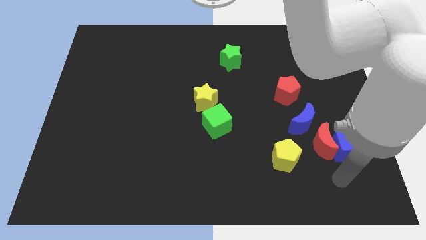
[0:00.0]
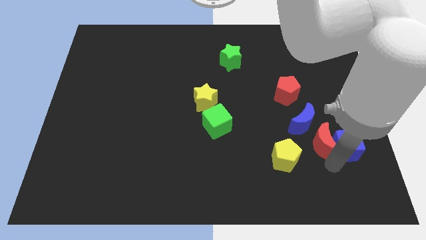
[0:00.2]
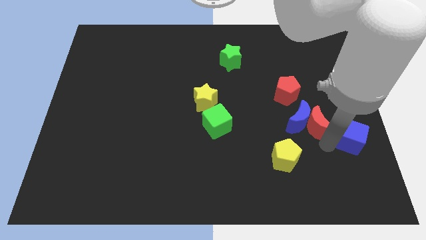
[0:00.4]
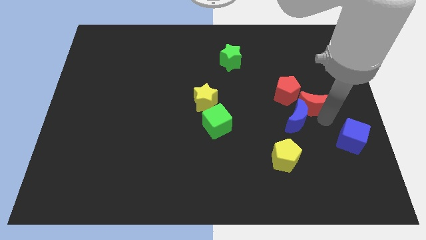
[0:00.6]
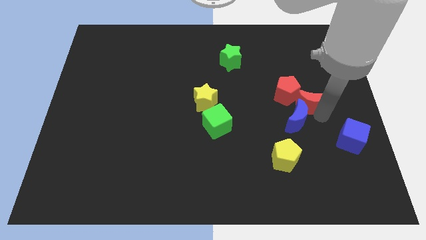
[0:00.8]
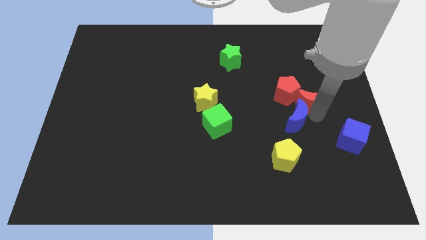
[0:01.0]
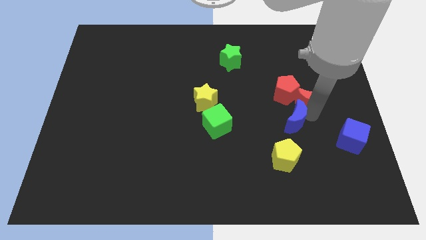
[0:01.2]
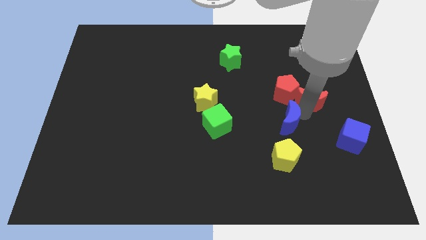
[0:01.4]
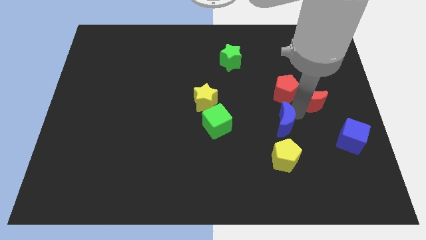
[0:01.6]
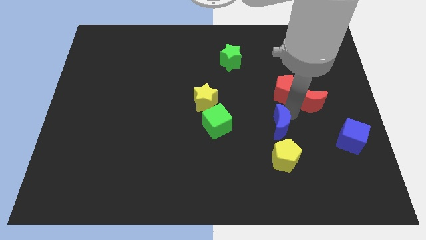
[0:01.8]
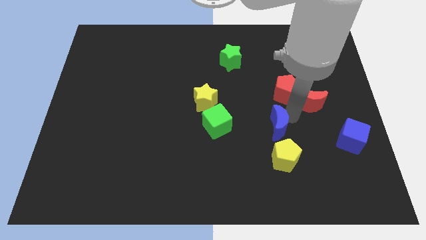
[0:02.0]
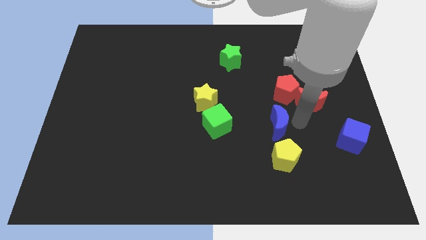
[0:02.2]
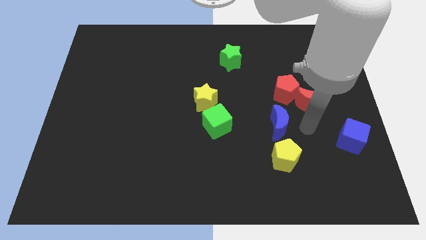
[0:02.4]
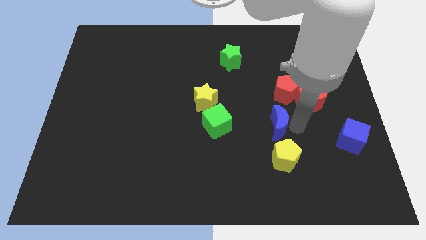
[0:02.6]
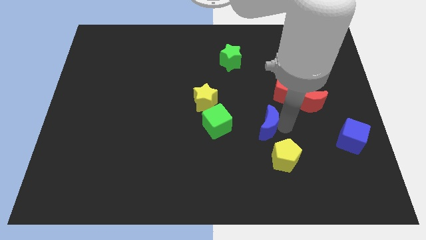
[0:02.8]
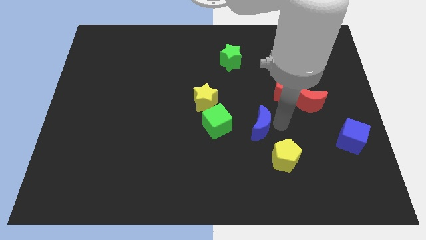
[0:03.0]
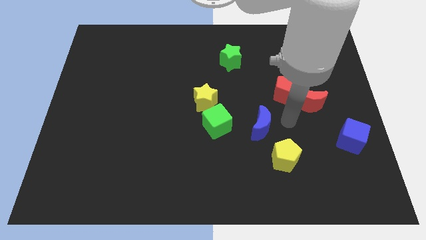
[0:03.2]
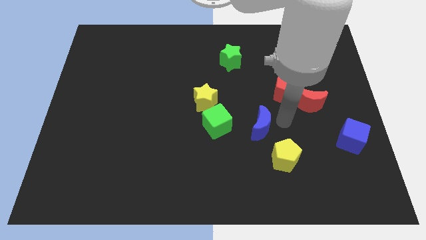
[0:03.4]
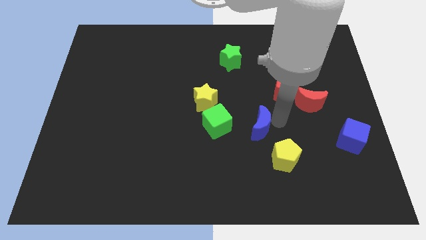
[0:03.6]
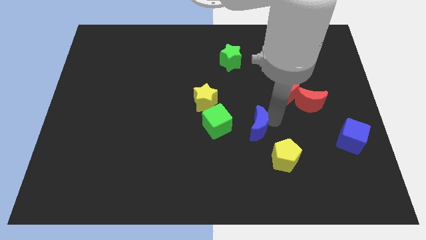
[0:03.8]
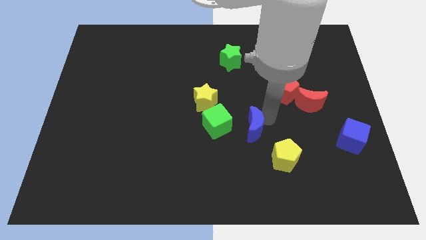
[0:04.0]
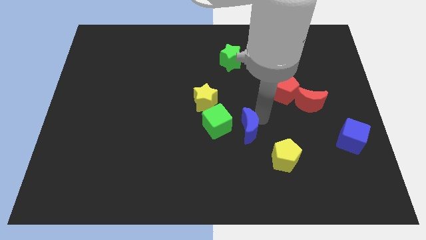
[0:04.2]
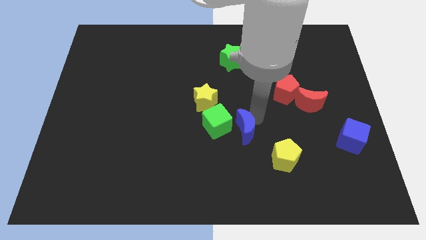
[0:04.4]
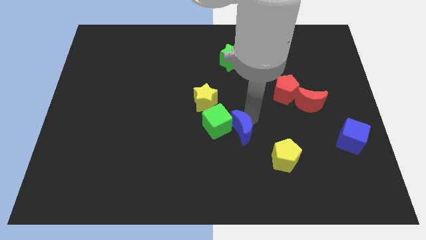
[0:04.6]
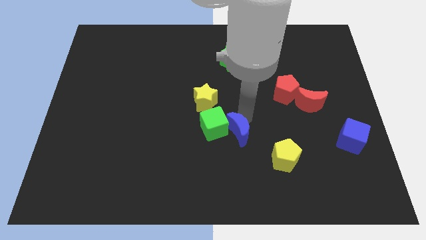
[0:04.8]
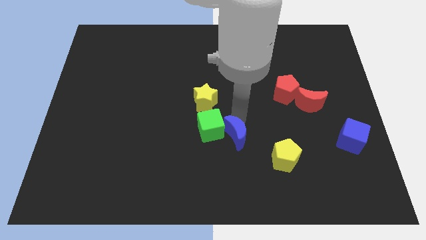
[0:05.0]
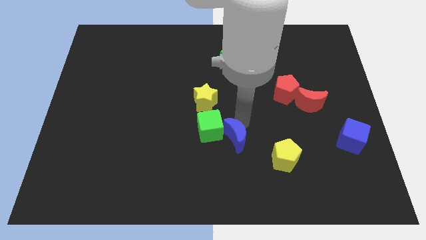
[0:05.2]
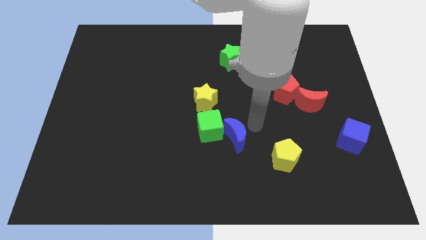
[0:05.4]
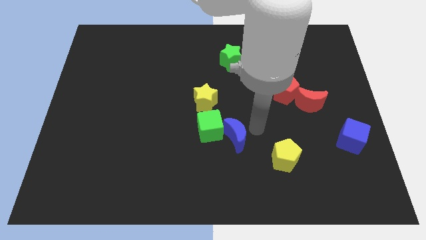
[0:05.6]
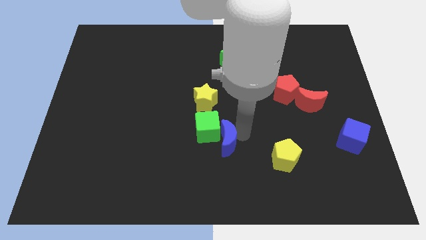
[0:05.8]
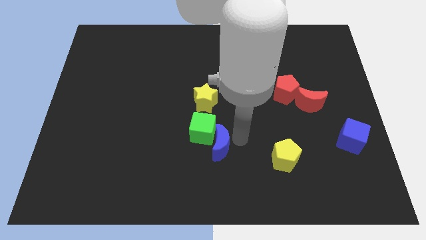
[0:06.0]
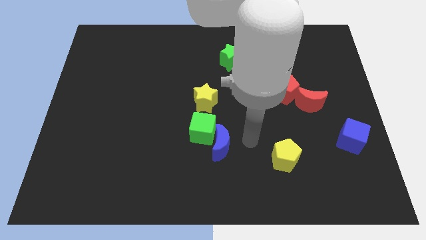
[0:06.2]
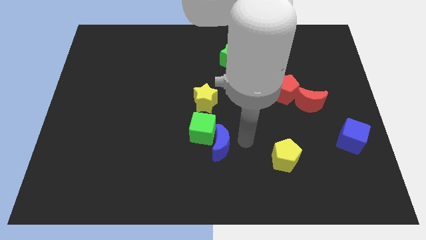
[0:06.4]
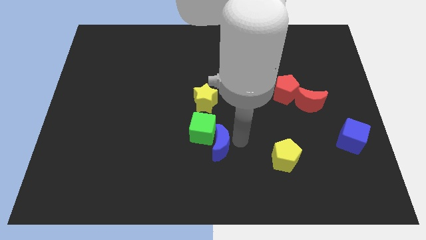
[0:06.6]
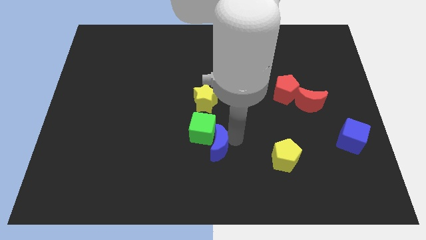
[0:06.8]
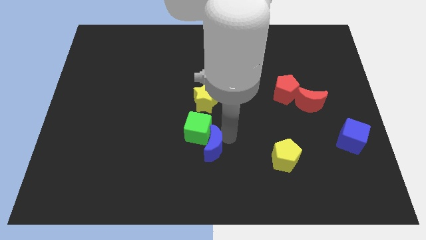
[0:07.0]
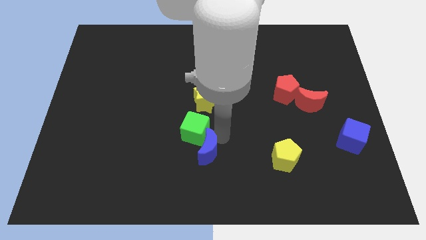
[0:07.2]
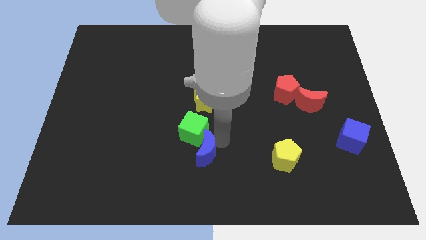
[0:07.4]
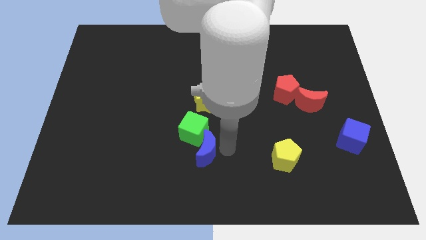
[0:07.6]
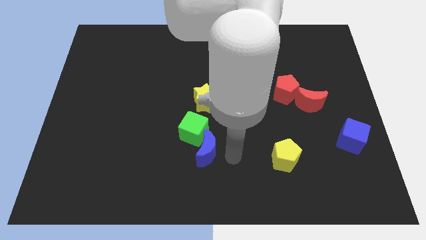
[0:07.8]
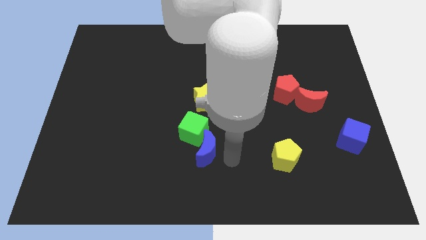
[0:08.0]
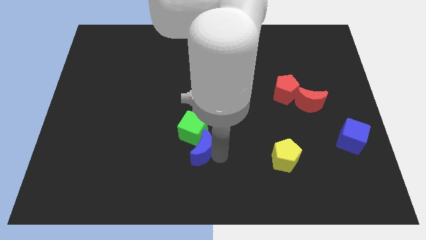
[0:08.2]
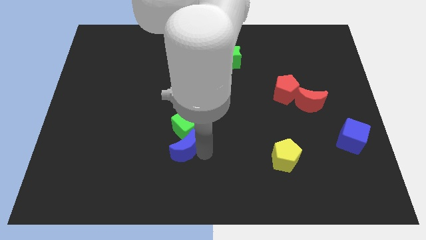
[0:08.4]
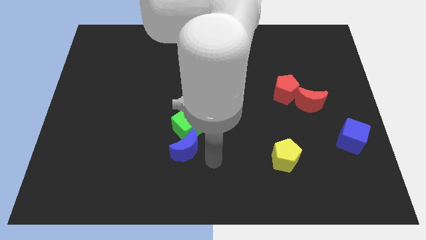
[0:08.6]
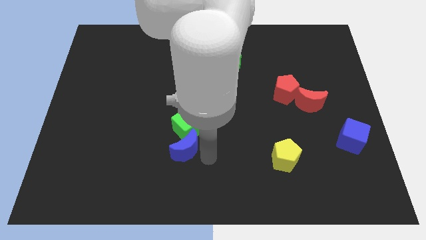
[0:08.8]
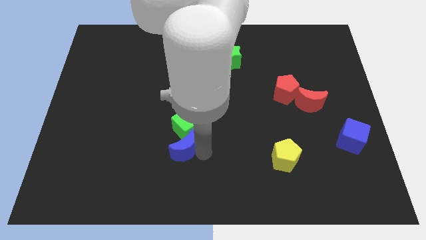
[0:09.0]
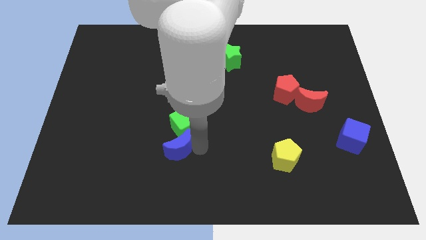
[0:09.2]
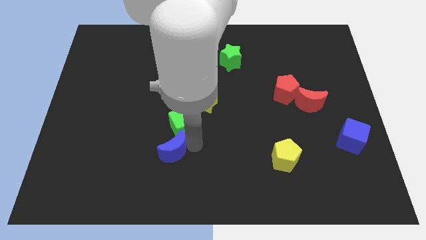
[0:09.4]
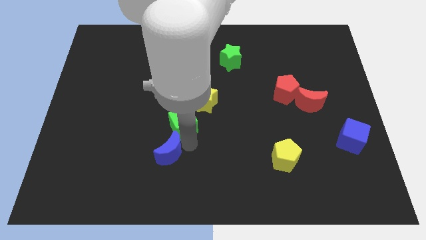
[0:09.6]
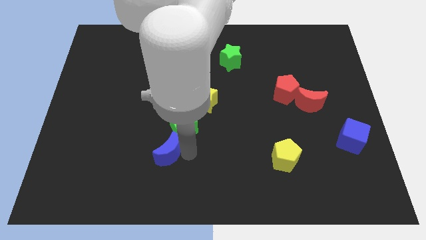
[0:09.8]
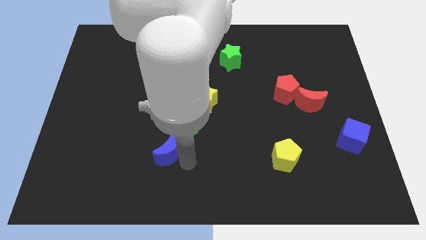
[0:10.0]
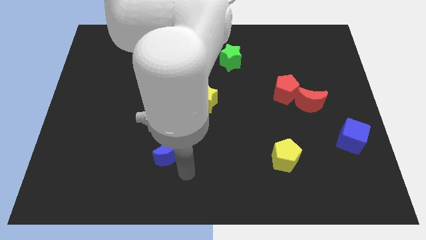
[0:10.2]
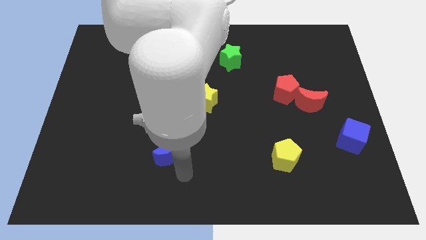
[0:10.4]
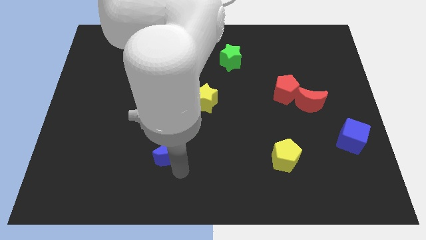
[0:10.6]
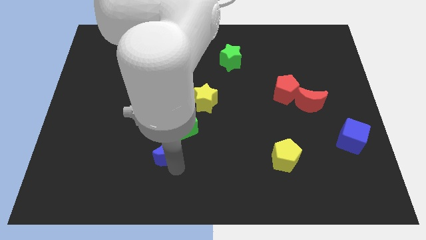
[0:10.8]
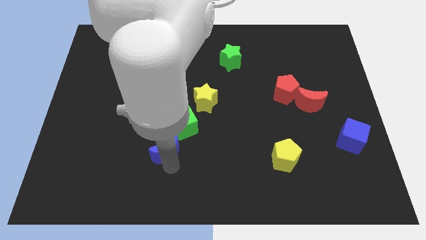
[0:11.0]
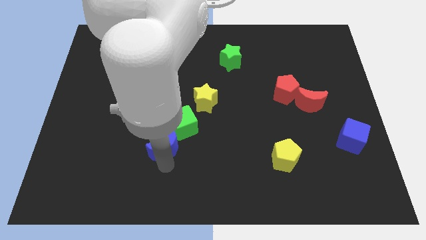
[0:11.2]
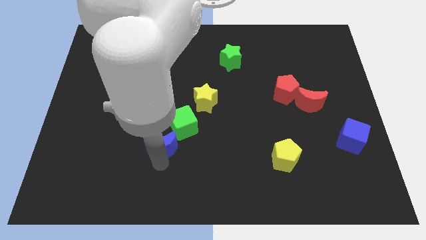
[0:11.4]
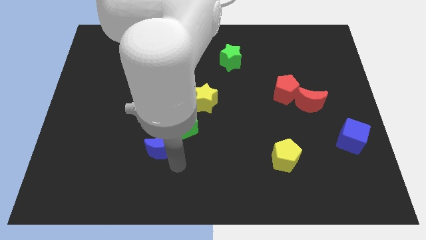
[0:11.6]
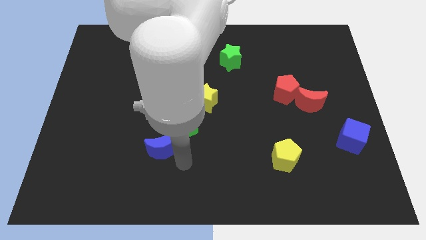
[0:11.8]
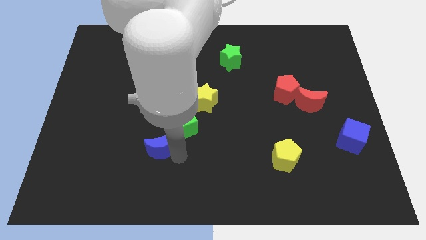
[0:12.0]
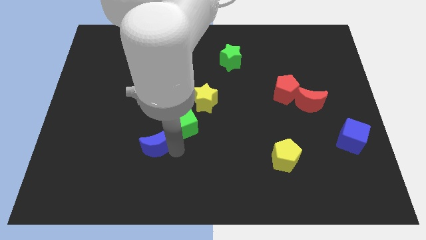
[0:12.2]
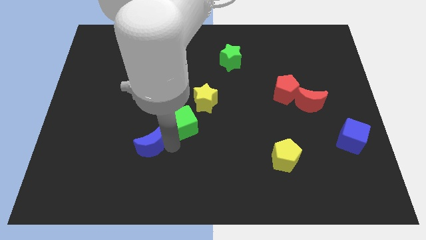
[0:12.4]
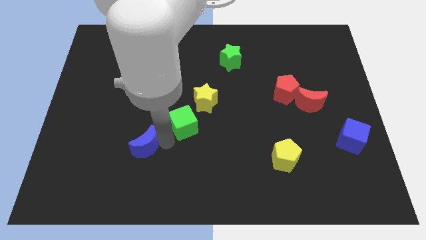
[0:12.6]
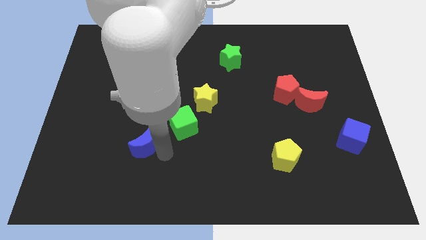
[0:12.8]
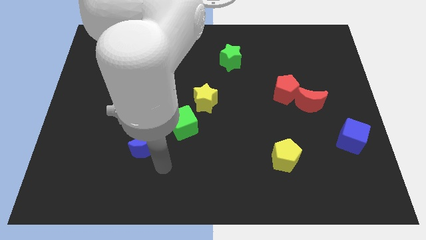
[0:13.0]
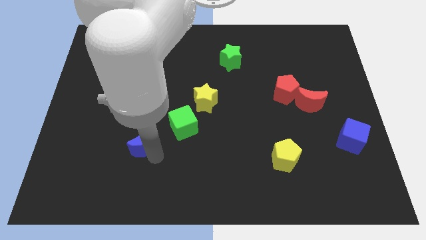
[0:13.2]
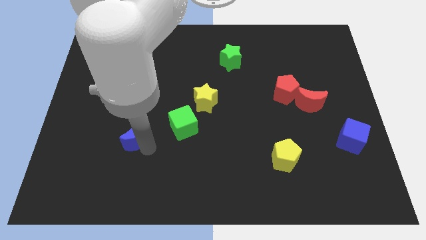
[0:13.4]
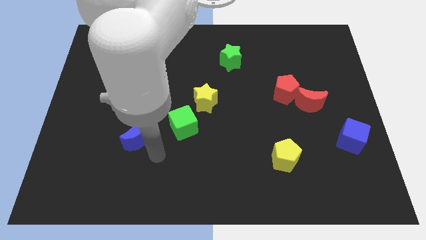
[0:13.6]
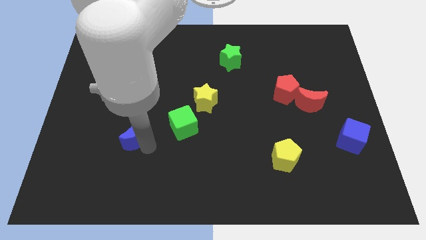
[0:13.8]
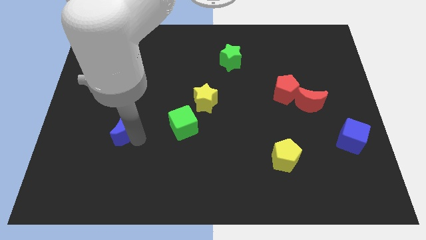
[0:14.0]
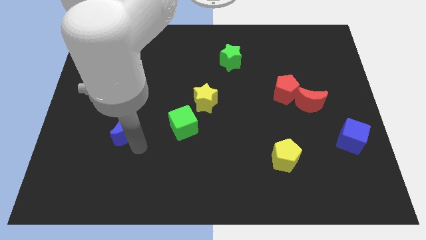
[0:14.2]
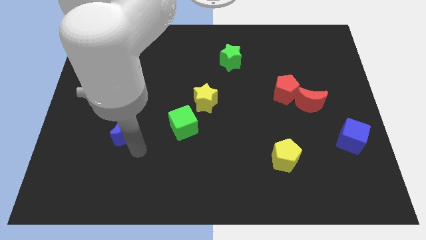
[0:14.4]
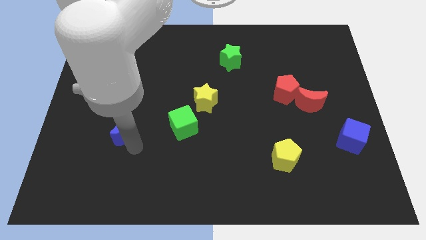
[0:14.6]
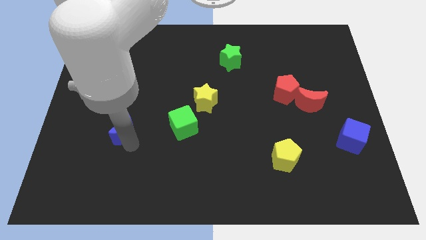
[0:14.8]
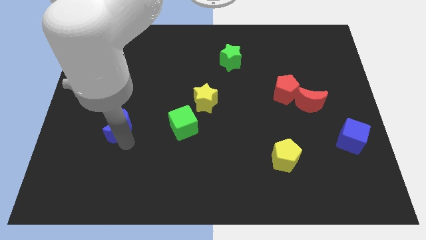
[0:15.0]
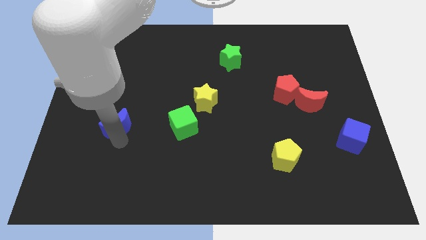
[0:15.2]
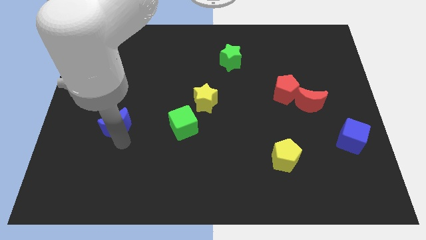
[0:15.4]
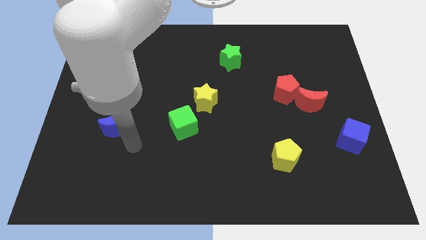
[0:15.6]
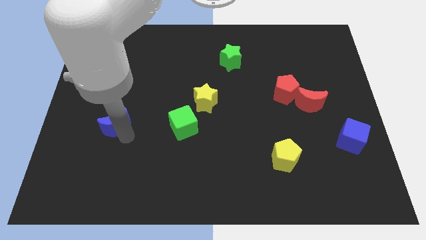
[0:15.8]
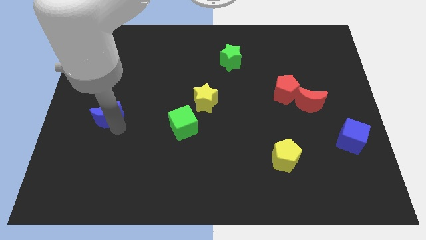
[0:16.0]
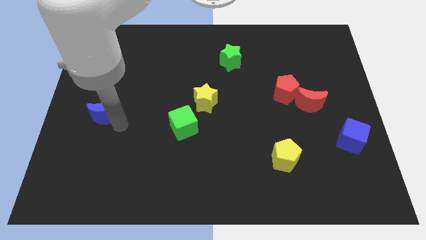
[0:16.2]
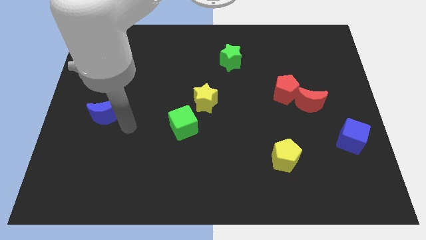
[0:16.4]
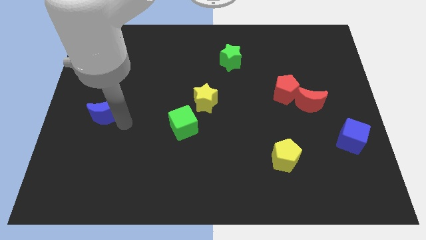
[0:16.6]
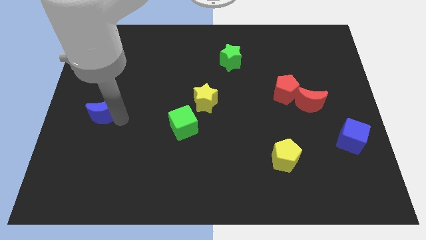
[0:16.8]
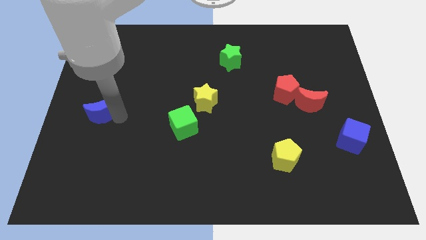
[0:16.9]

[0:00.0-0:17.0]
move the blue moon to the left side
